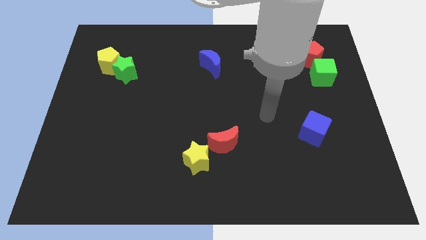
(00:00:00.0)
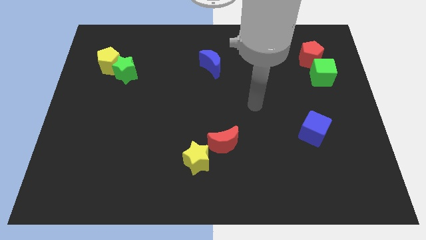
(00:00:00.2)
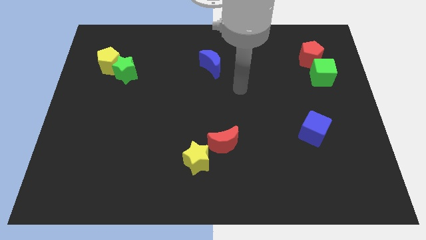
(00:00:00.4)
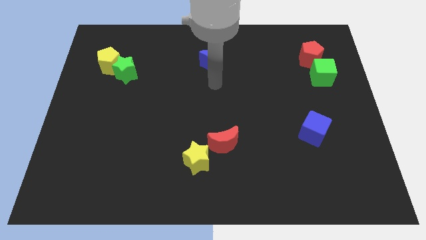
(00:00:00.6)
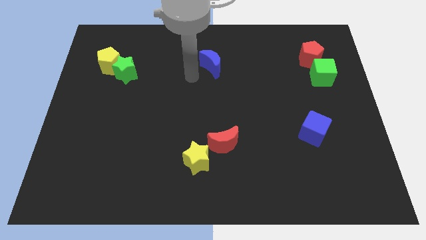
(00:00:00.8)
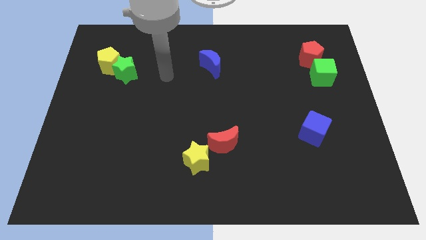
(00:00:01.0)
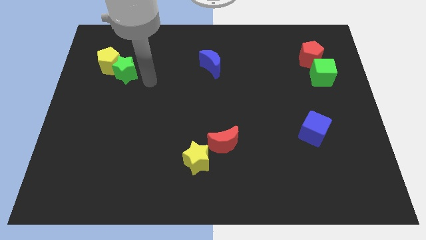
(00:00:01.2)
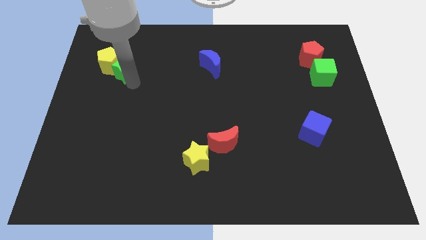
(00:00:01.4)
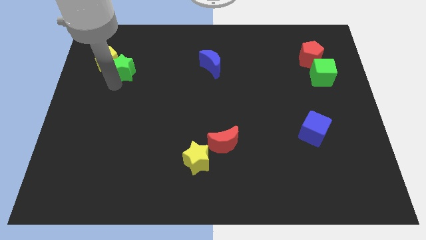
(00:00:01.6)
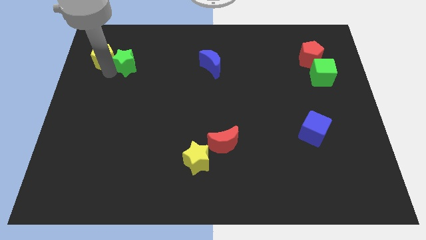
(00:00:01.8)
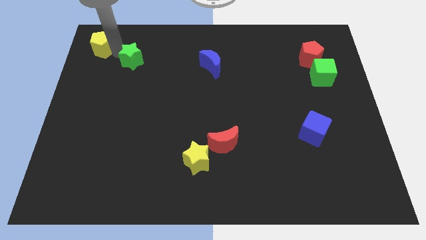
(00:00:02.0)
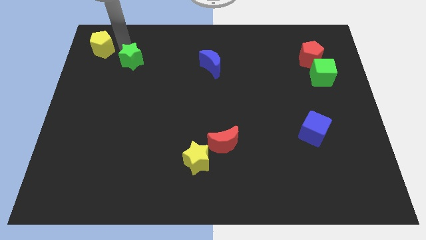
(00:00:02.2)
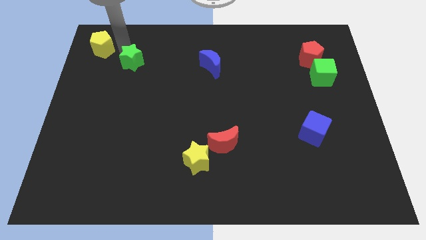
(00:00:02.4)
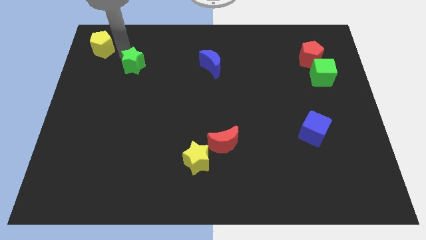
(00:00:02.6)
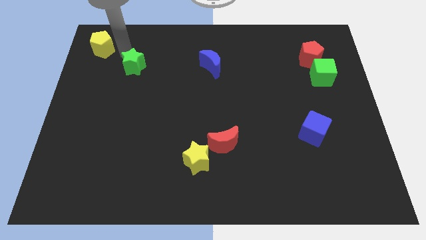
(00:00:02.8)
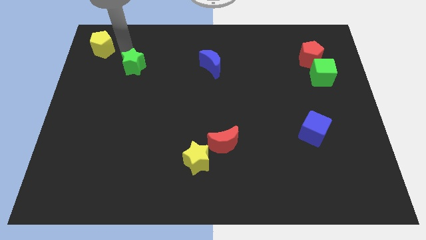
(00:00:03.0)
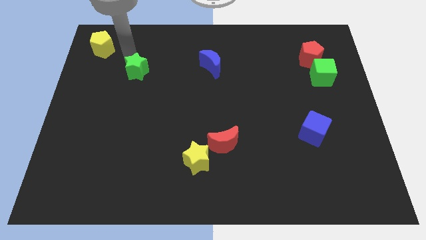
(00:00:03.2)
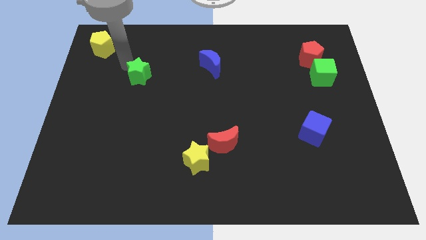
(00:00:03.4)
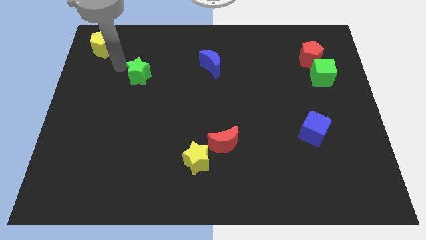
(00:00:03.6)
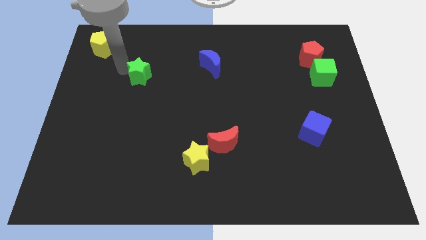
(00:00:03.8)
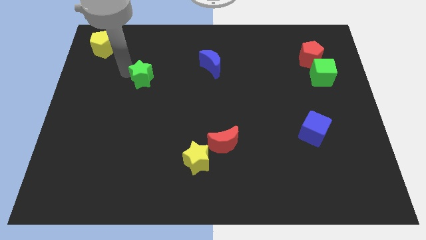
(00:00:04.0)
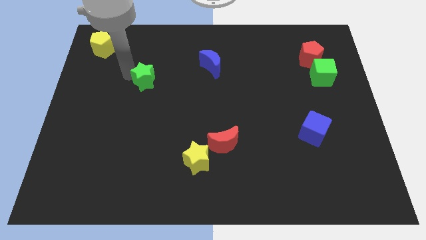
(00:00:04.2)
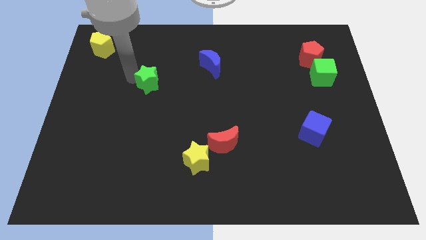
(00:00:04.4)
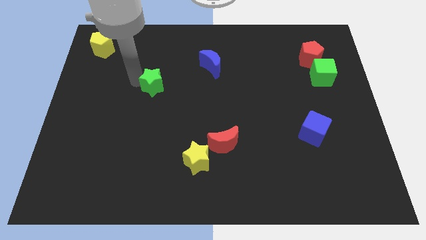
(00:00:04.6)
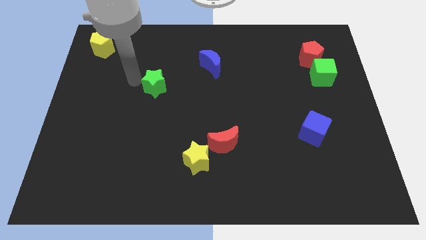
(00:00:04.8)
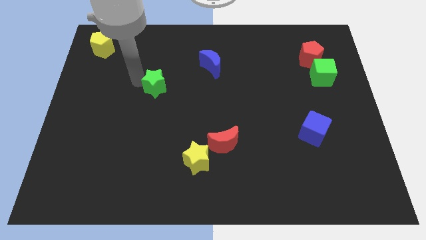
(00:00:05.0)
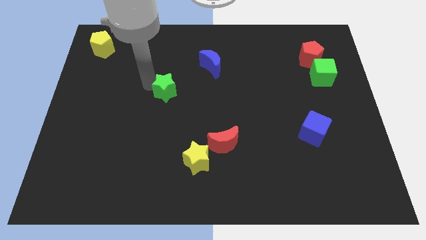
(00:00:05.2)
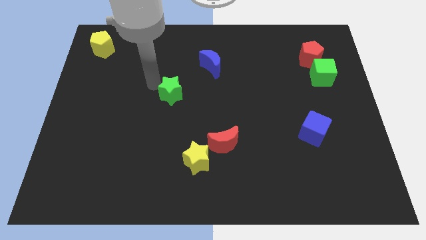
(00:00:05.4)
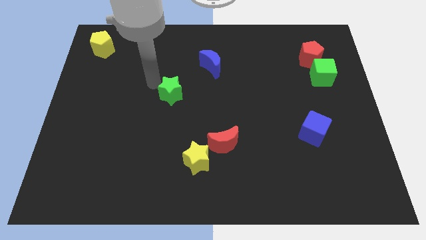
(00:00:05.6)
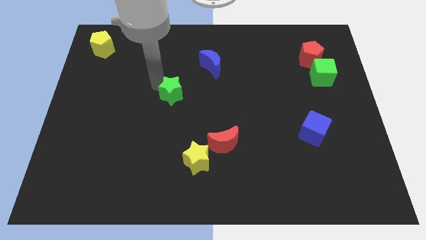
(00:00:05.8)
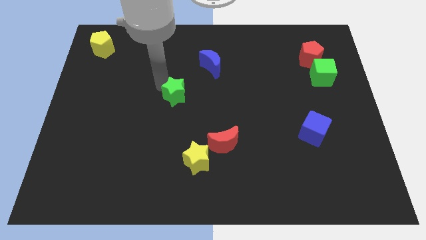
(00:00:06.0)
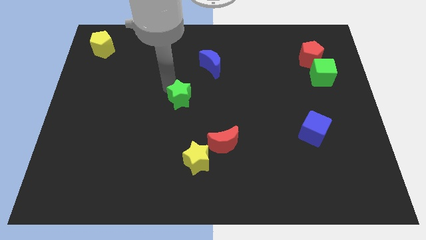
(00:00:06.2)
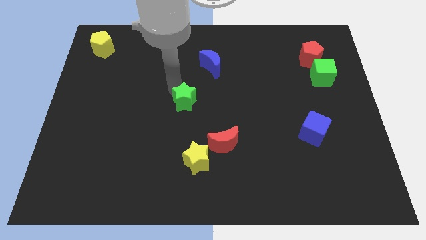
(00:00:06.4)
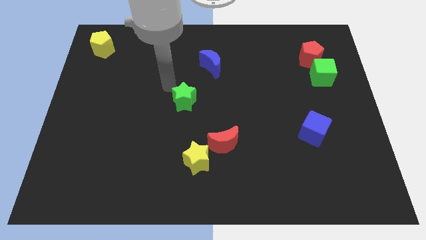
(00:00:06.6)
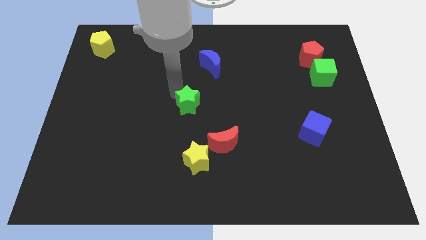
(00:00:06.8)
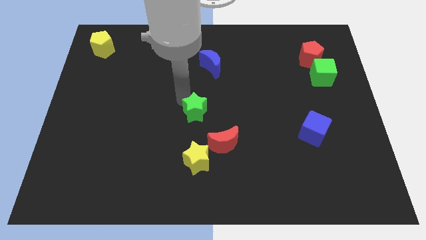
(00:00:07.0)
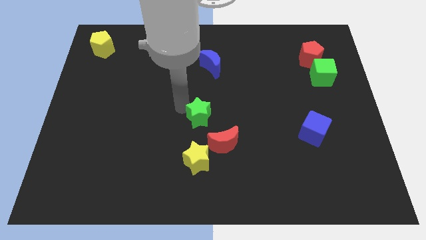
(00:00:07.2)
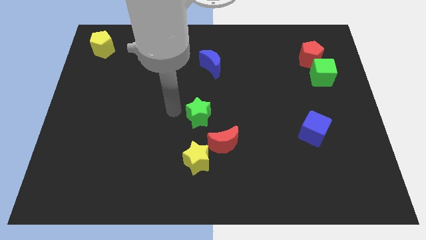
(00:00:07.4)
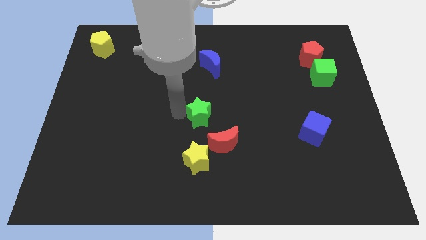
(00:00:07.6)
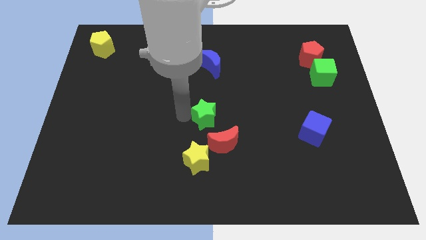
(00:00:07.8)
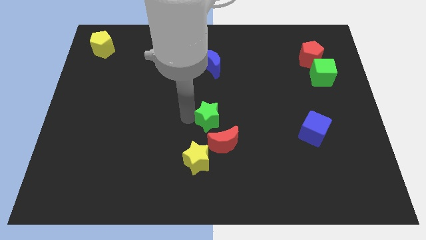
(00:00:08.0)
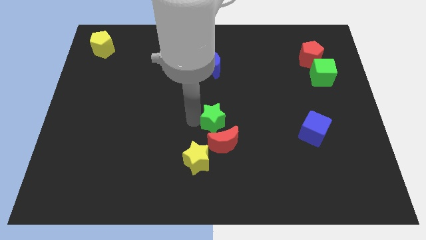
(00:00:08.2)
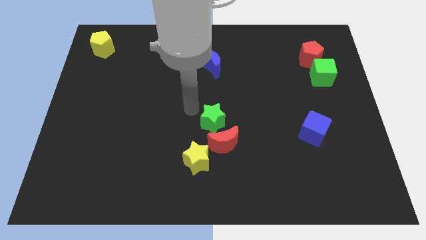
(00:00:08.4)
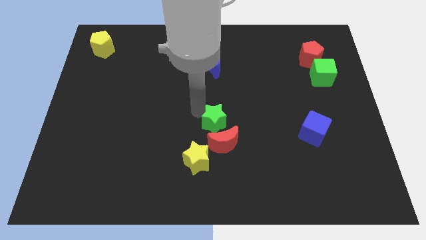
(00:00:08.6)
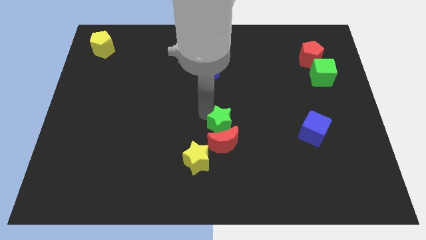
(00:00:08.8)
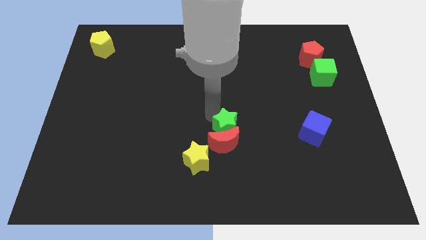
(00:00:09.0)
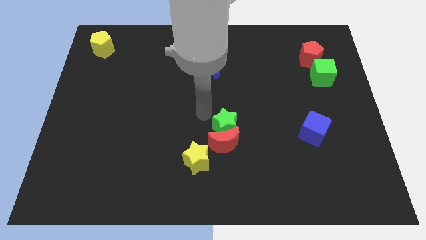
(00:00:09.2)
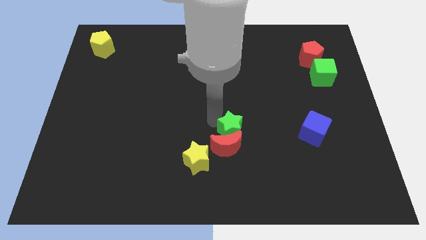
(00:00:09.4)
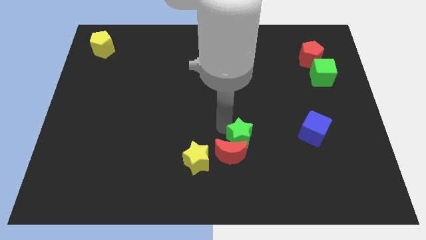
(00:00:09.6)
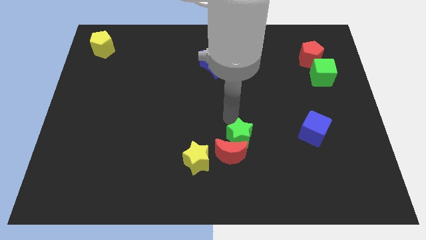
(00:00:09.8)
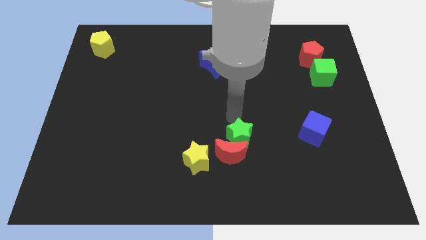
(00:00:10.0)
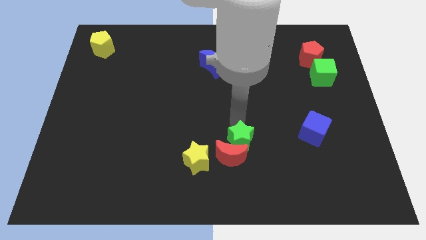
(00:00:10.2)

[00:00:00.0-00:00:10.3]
slide the green star just right of the yellow star

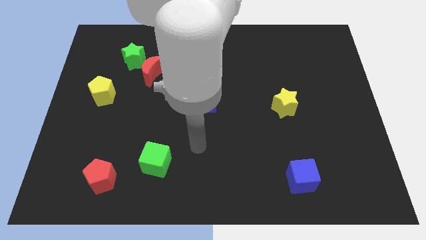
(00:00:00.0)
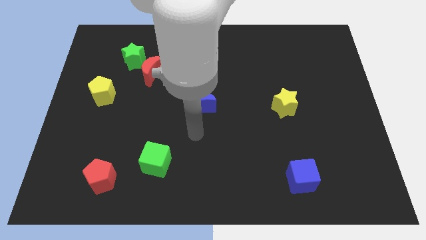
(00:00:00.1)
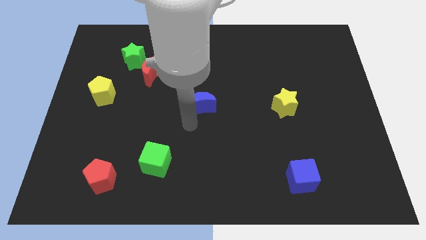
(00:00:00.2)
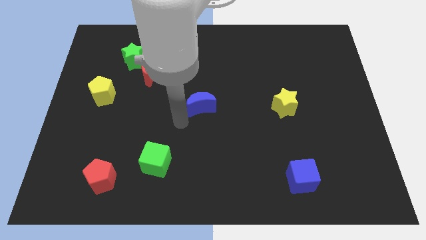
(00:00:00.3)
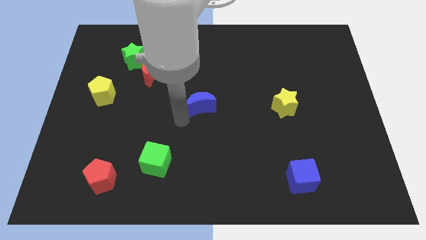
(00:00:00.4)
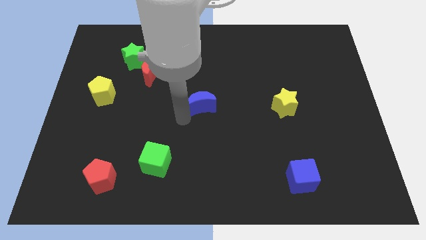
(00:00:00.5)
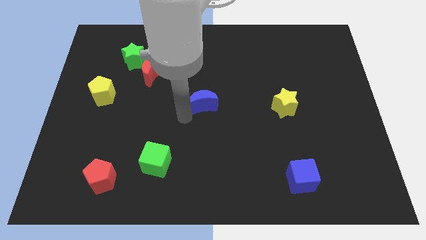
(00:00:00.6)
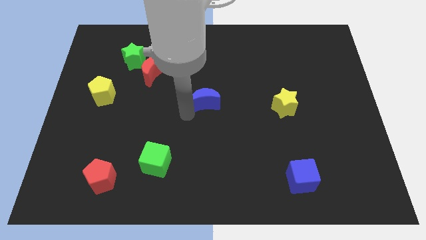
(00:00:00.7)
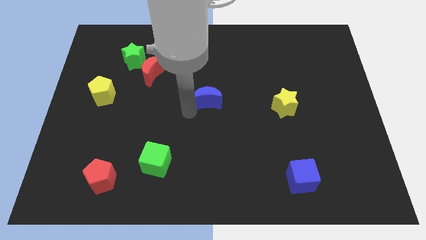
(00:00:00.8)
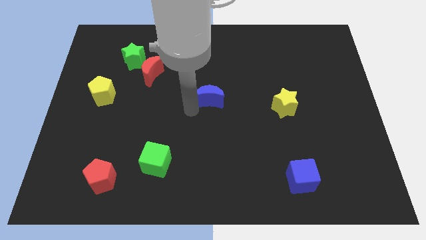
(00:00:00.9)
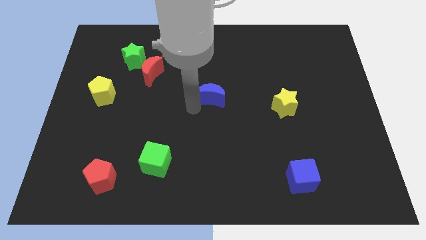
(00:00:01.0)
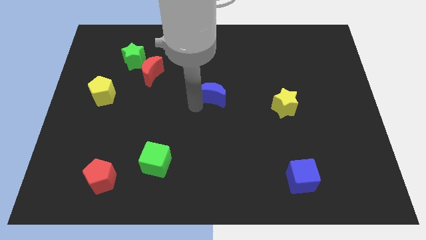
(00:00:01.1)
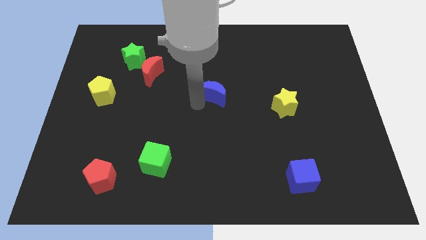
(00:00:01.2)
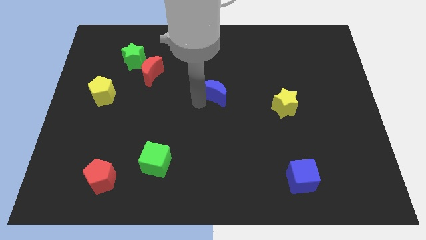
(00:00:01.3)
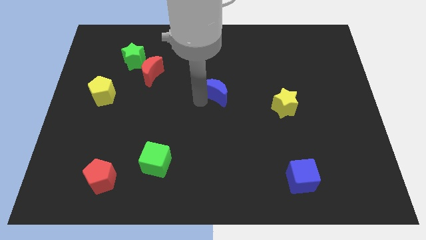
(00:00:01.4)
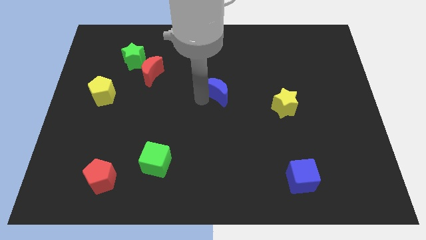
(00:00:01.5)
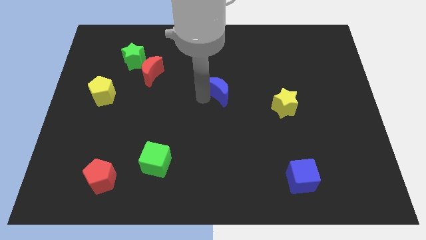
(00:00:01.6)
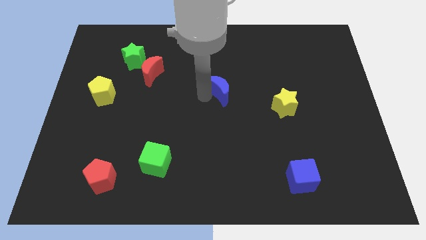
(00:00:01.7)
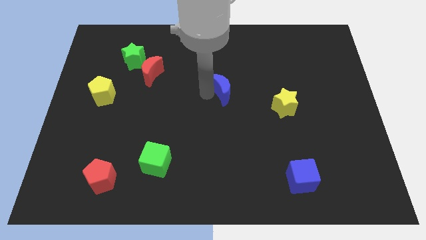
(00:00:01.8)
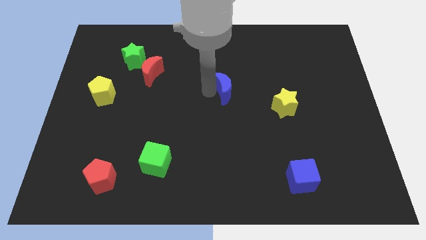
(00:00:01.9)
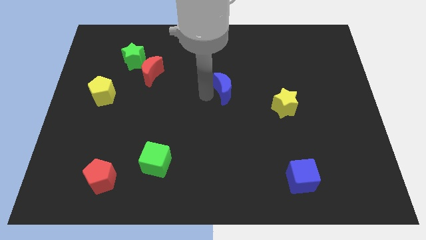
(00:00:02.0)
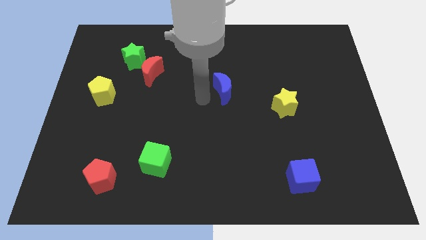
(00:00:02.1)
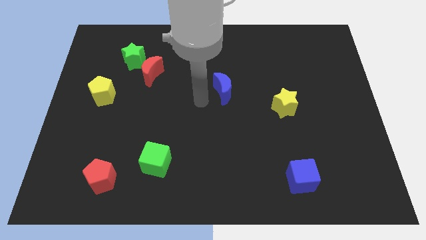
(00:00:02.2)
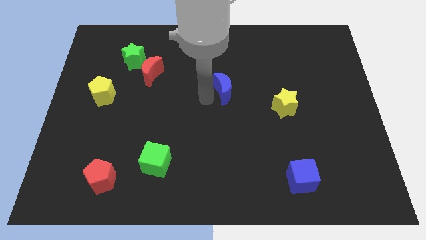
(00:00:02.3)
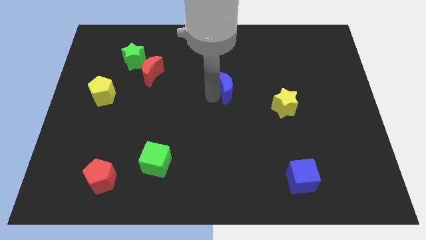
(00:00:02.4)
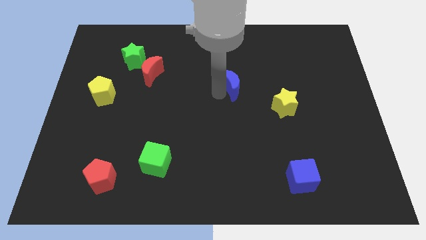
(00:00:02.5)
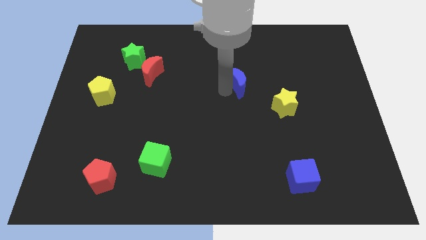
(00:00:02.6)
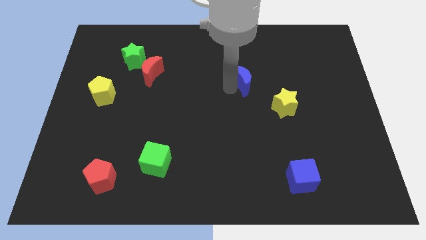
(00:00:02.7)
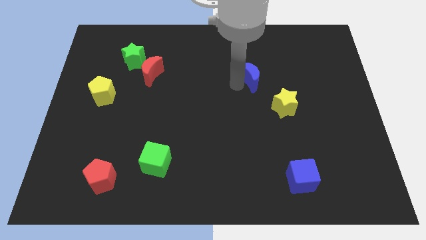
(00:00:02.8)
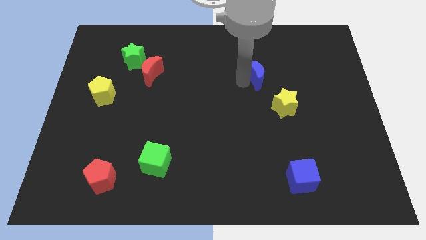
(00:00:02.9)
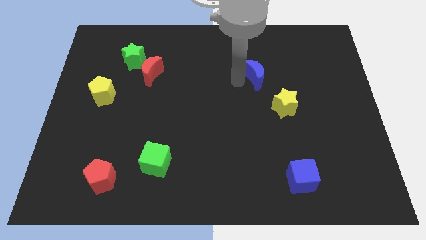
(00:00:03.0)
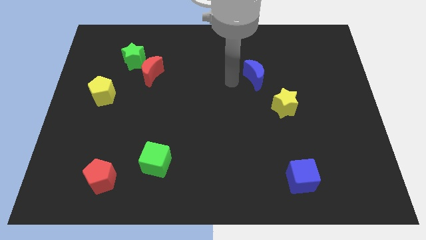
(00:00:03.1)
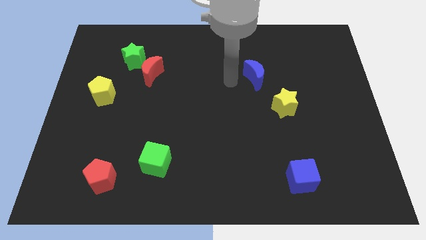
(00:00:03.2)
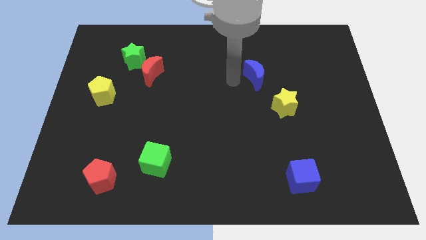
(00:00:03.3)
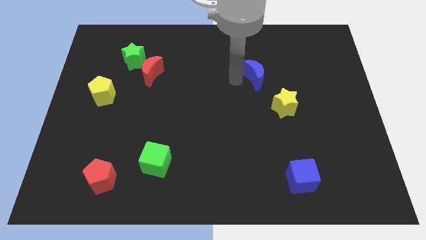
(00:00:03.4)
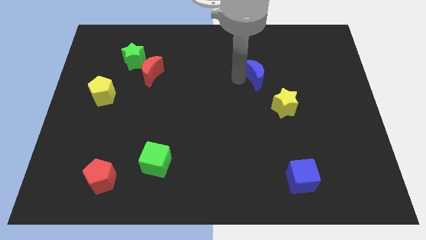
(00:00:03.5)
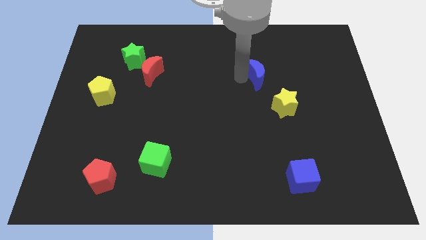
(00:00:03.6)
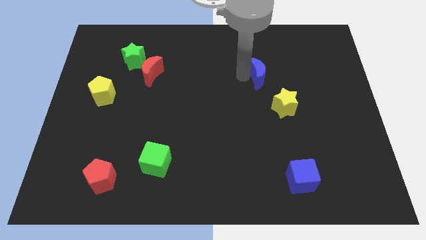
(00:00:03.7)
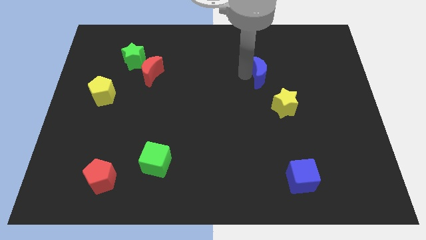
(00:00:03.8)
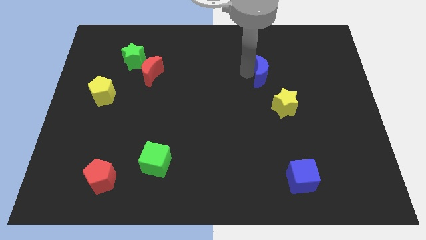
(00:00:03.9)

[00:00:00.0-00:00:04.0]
move the blue moon to the top of the yellow star
